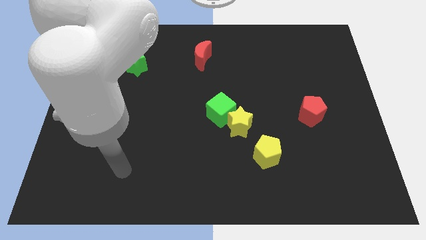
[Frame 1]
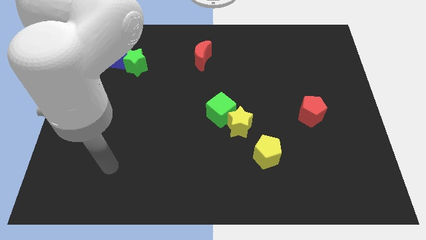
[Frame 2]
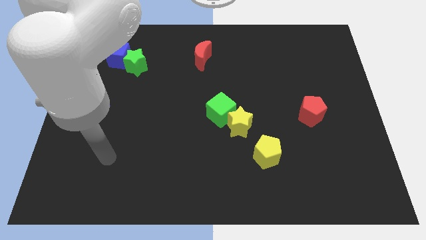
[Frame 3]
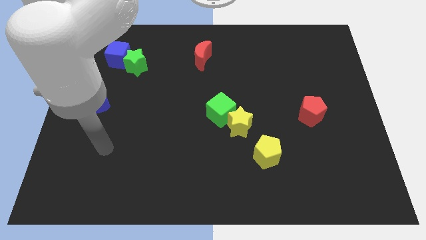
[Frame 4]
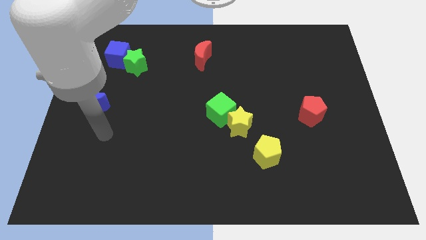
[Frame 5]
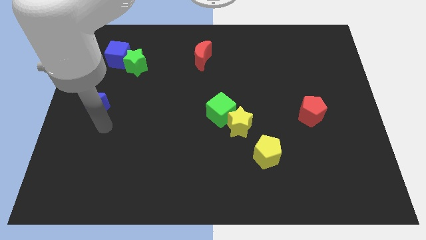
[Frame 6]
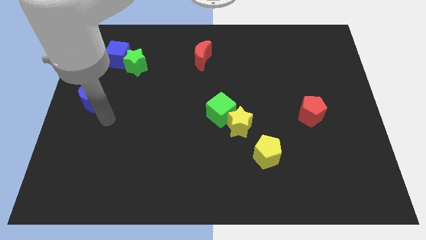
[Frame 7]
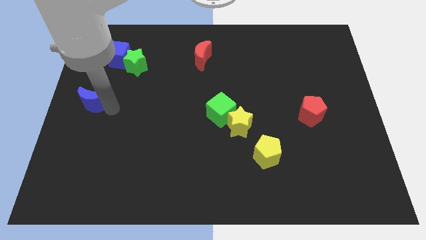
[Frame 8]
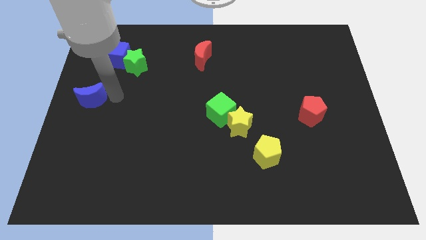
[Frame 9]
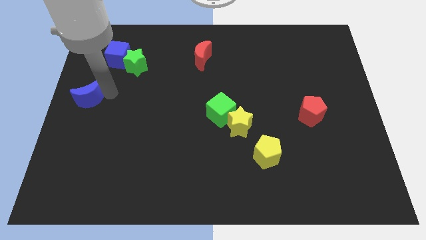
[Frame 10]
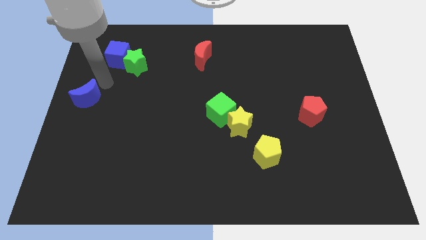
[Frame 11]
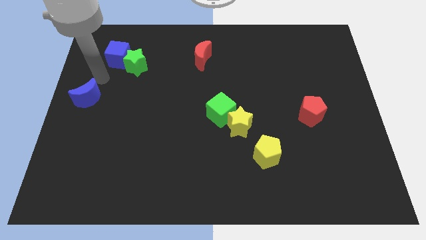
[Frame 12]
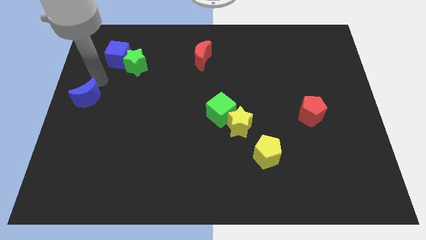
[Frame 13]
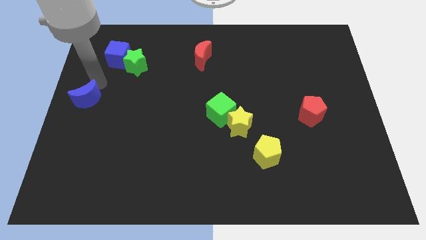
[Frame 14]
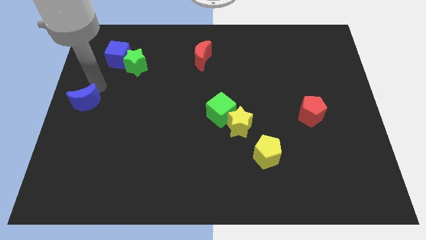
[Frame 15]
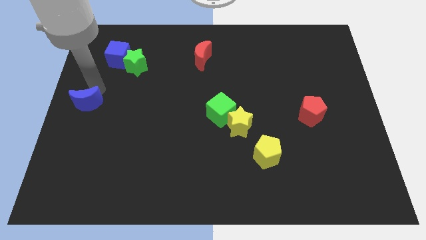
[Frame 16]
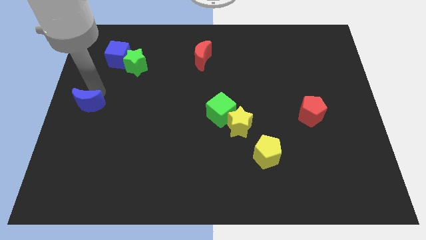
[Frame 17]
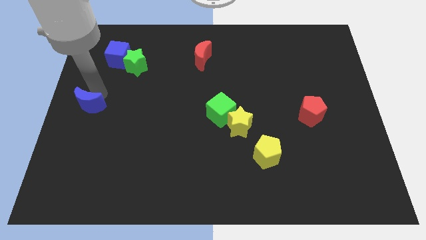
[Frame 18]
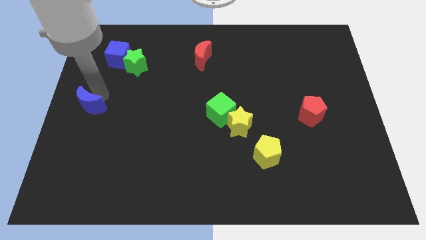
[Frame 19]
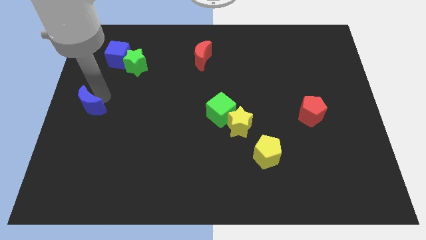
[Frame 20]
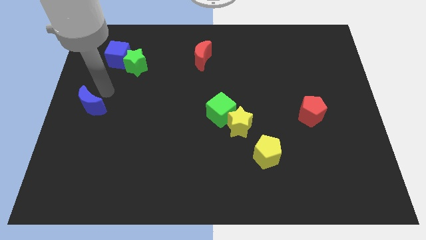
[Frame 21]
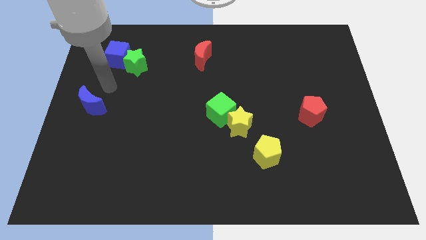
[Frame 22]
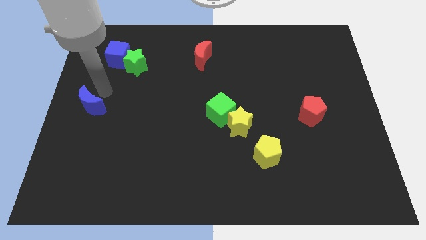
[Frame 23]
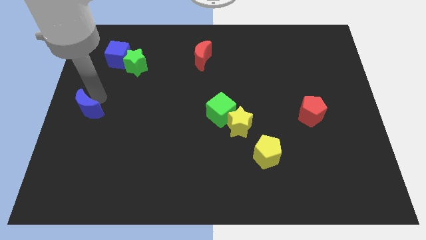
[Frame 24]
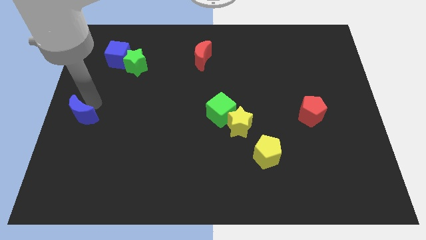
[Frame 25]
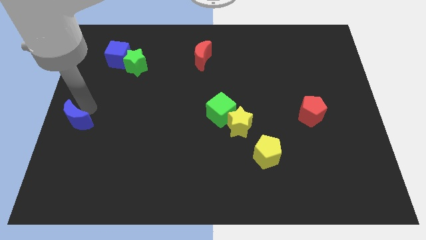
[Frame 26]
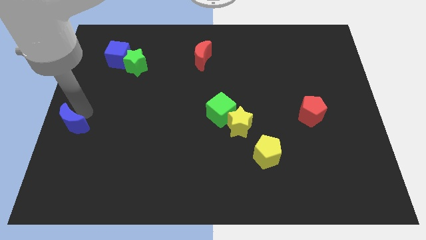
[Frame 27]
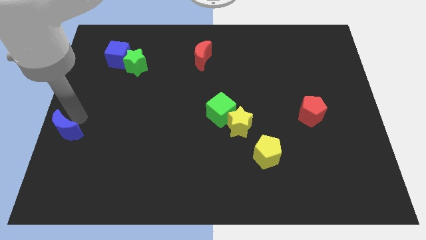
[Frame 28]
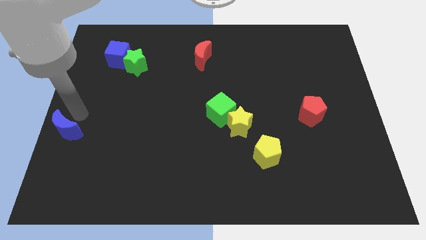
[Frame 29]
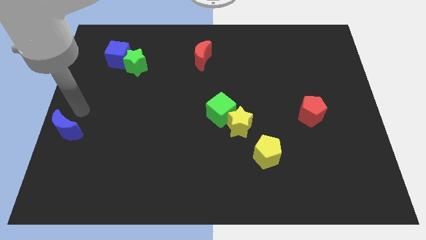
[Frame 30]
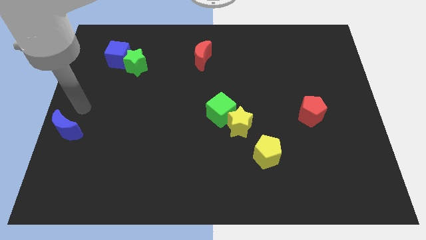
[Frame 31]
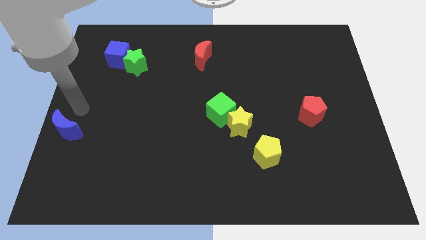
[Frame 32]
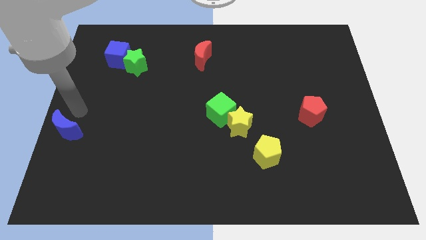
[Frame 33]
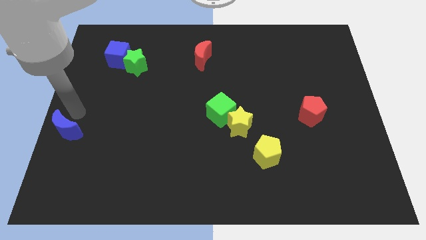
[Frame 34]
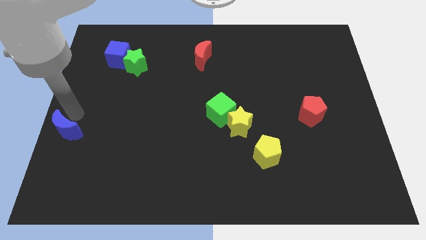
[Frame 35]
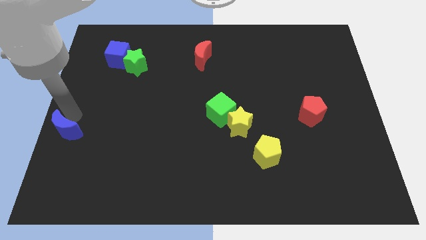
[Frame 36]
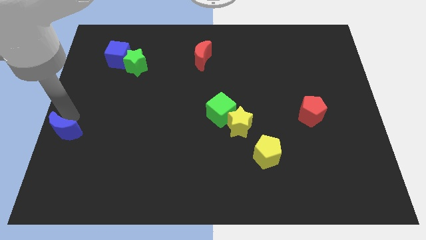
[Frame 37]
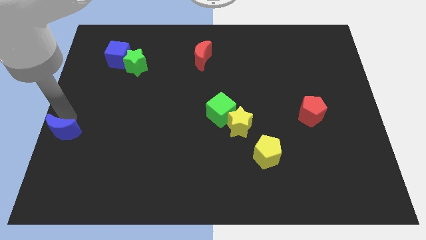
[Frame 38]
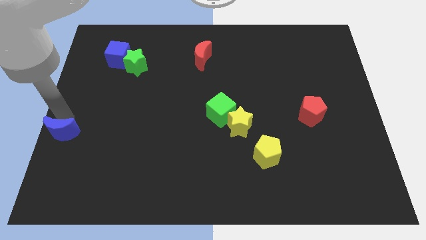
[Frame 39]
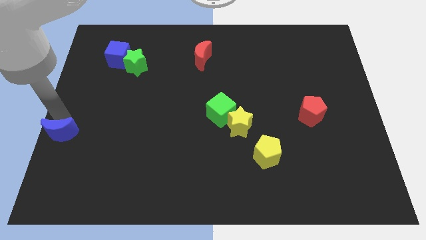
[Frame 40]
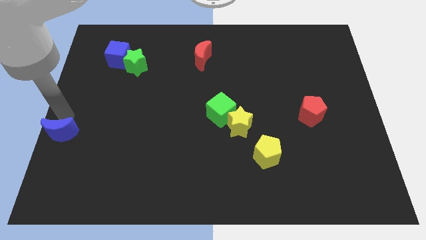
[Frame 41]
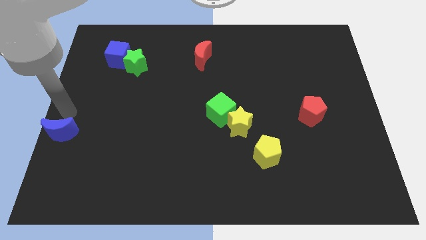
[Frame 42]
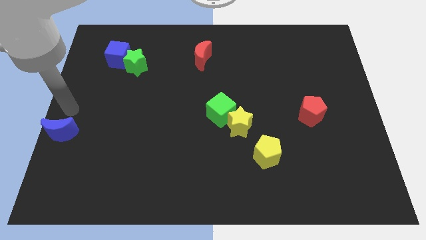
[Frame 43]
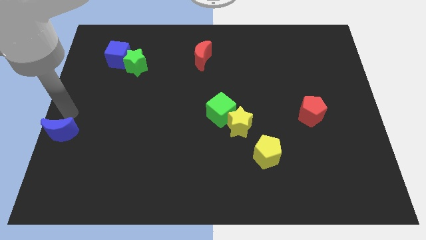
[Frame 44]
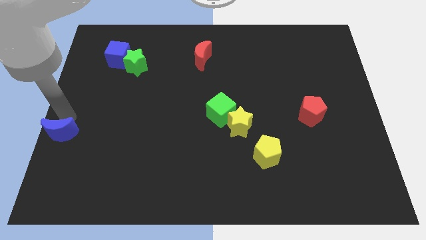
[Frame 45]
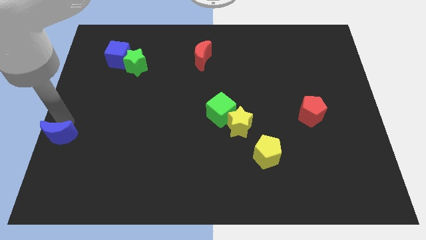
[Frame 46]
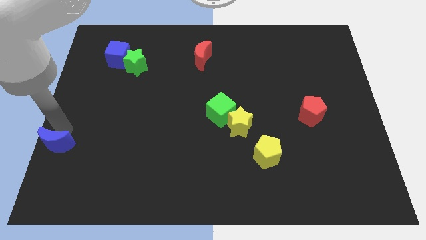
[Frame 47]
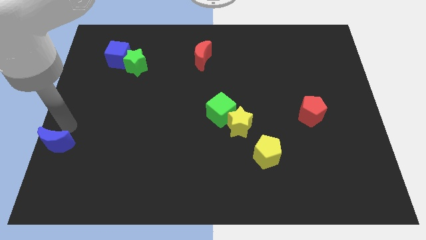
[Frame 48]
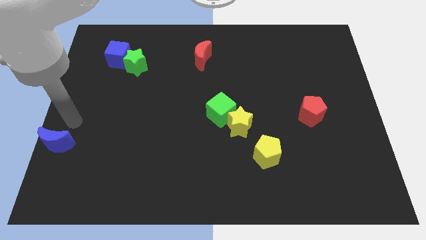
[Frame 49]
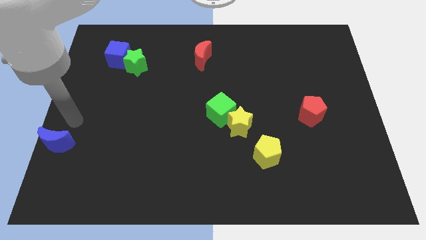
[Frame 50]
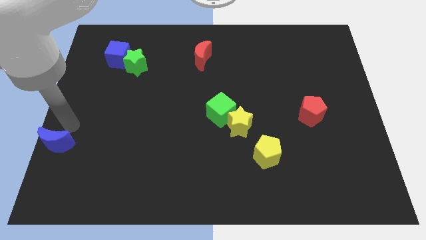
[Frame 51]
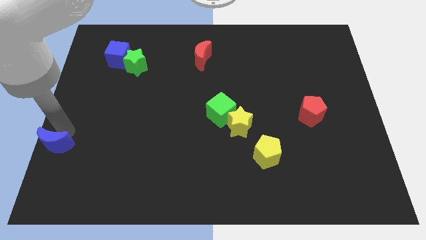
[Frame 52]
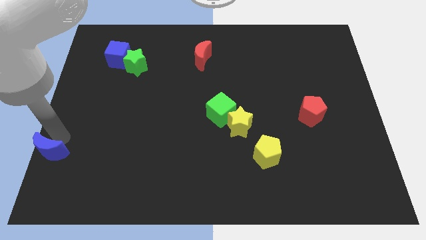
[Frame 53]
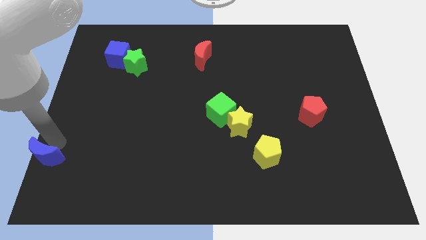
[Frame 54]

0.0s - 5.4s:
push the blue moon to the bottom left corner

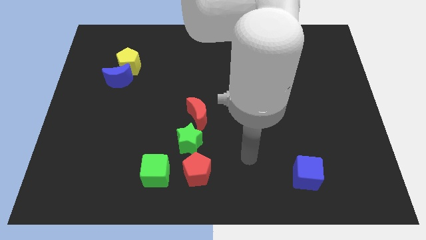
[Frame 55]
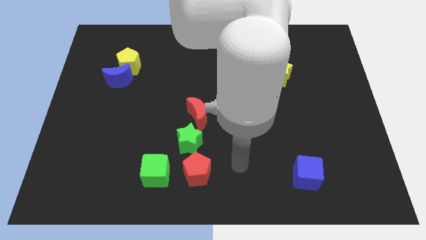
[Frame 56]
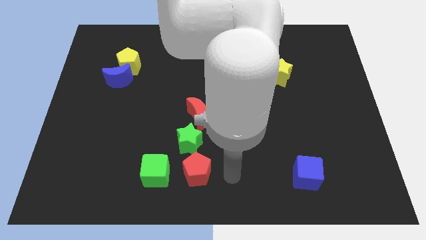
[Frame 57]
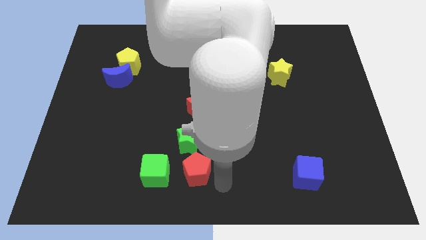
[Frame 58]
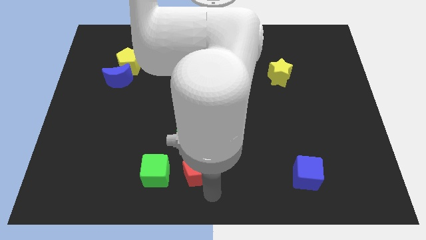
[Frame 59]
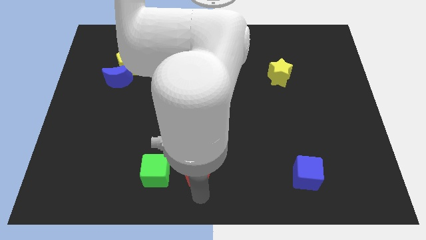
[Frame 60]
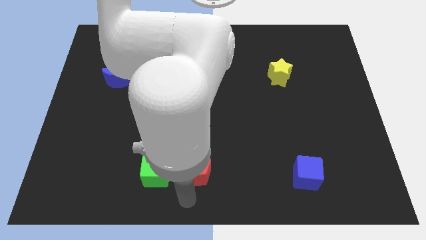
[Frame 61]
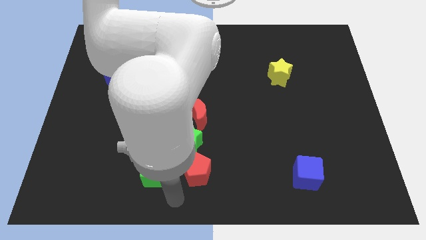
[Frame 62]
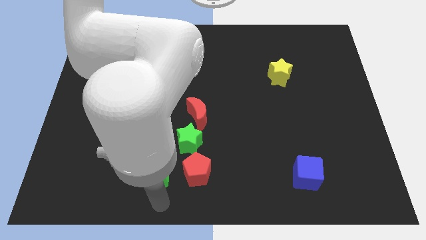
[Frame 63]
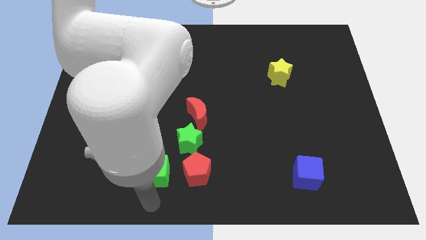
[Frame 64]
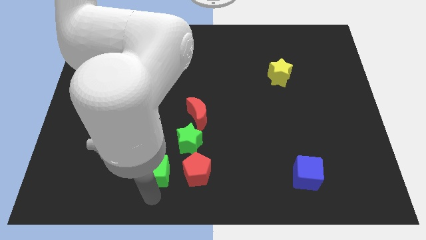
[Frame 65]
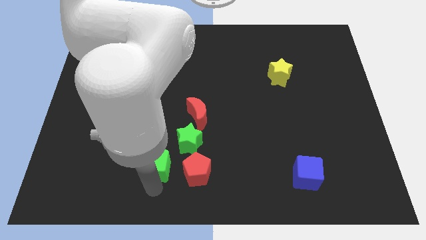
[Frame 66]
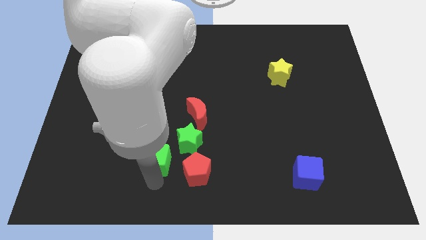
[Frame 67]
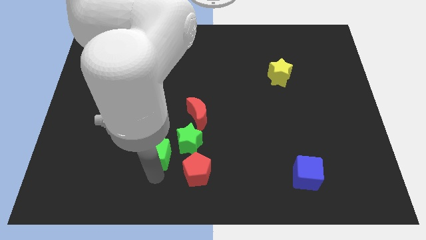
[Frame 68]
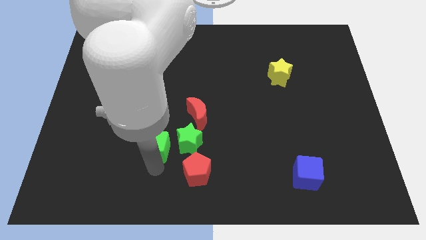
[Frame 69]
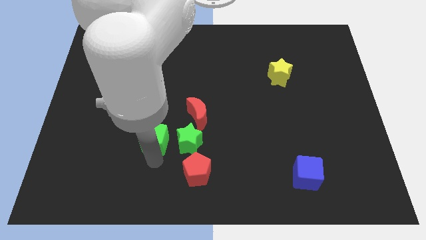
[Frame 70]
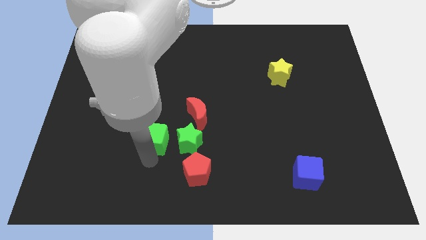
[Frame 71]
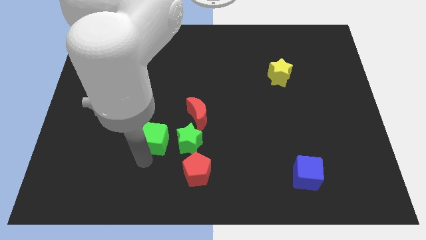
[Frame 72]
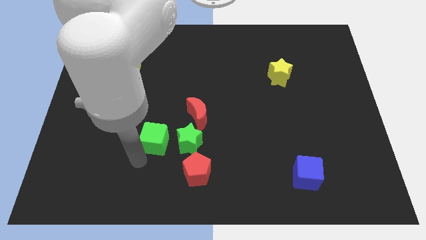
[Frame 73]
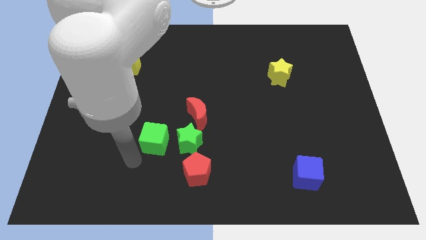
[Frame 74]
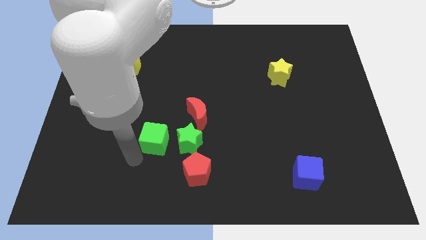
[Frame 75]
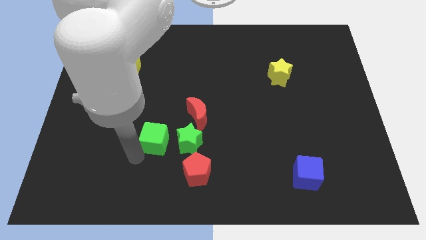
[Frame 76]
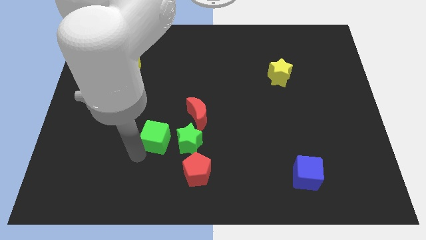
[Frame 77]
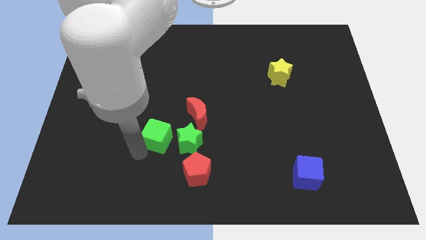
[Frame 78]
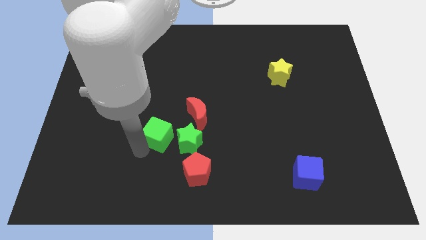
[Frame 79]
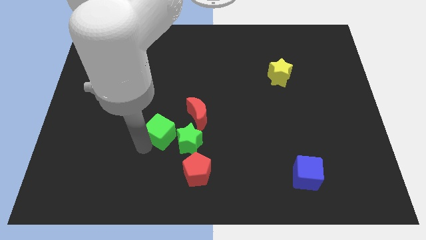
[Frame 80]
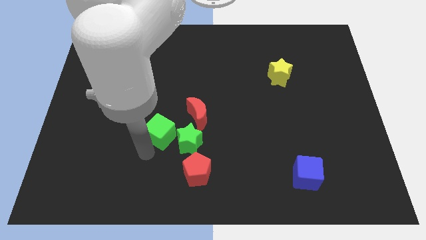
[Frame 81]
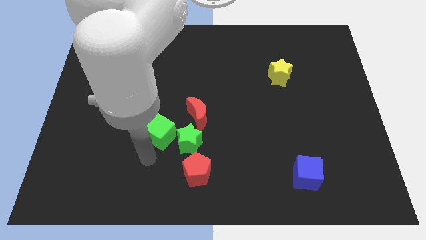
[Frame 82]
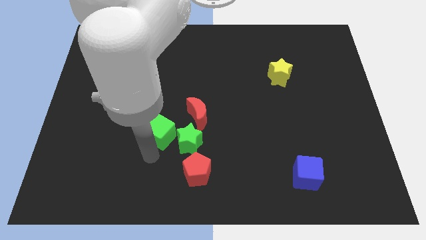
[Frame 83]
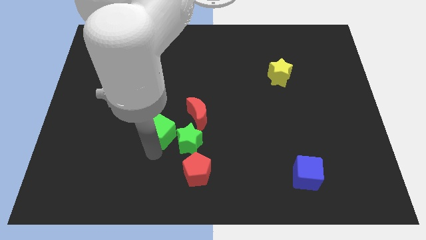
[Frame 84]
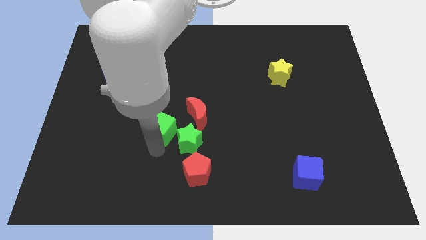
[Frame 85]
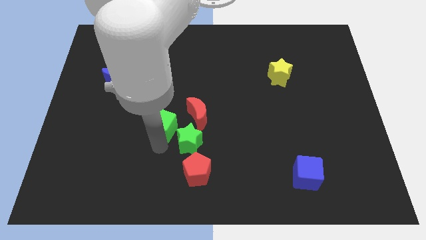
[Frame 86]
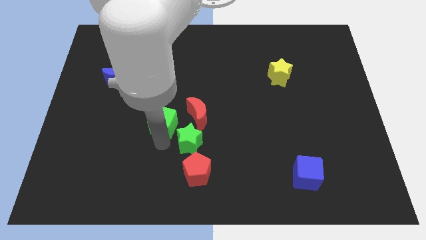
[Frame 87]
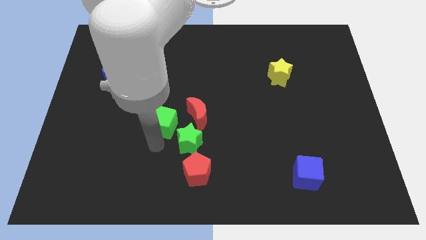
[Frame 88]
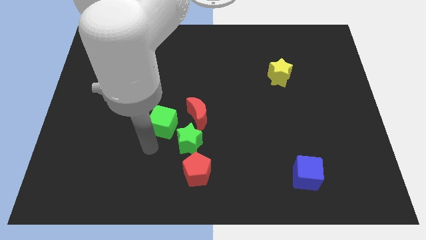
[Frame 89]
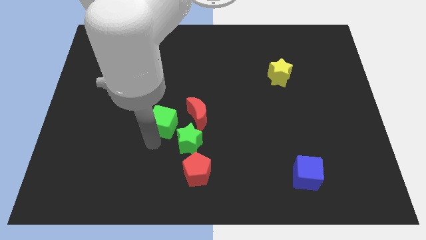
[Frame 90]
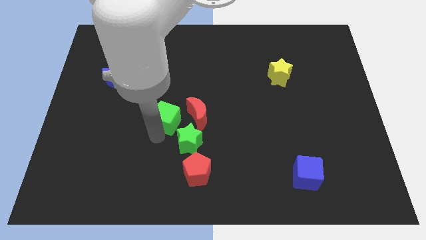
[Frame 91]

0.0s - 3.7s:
move the green cube to the center
